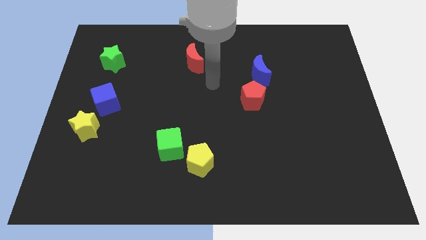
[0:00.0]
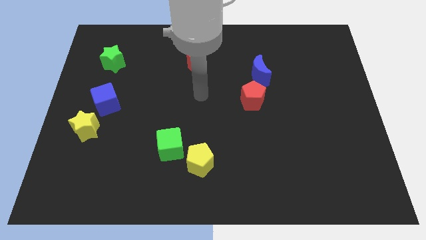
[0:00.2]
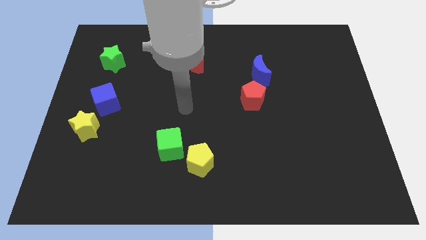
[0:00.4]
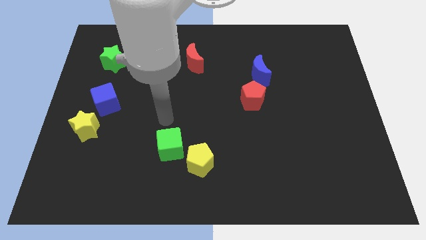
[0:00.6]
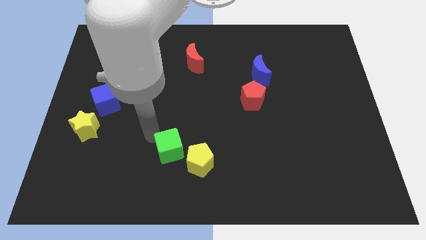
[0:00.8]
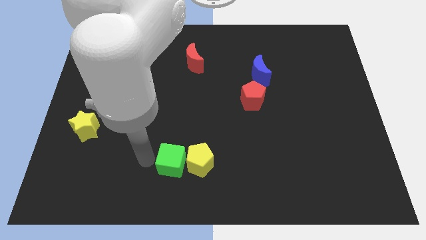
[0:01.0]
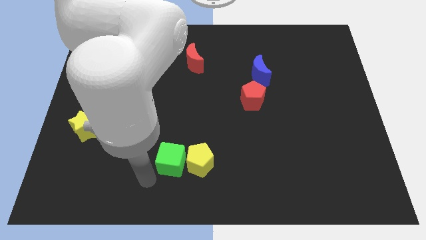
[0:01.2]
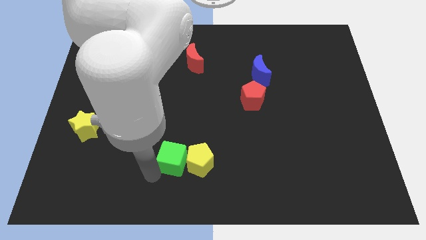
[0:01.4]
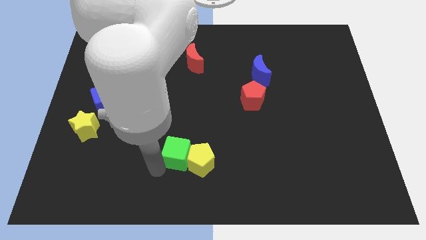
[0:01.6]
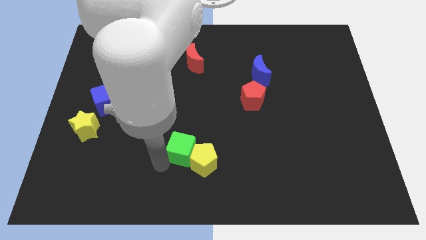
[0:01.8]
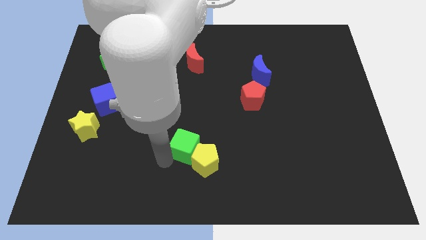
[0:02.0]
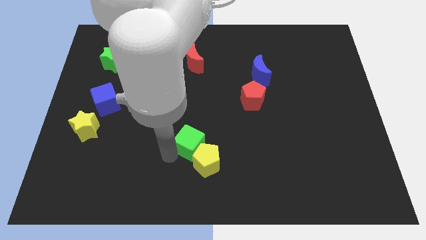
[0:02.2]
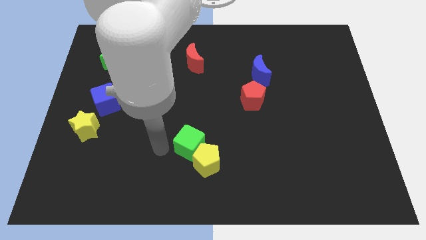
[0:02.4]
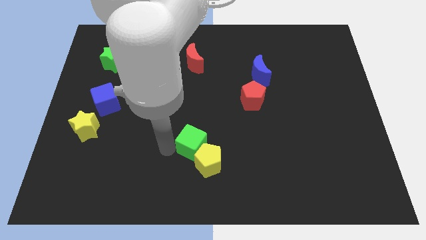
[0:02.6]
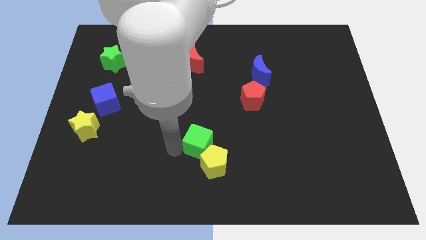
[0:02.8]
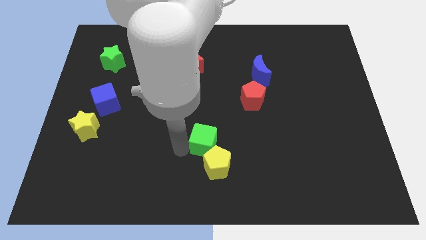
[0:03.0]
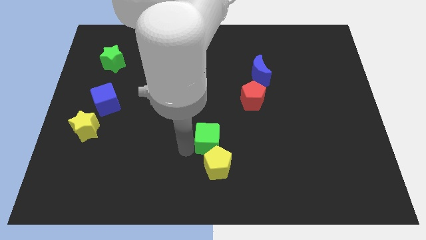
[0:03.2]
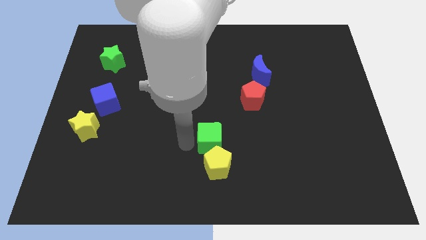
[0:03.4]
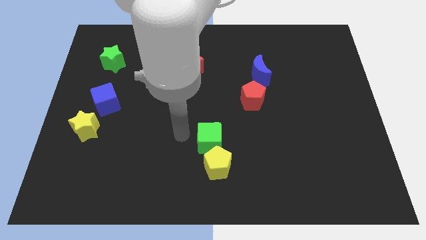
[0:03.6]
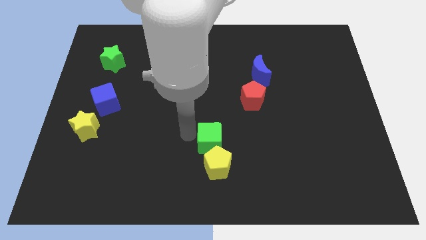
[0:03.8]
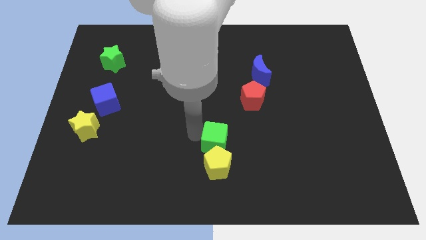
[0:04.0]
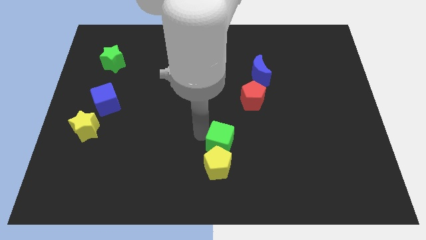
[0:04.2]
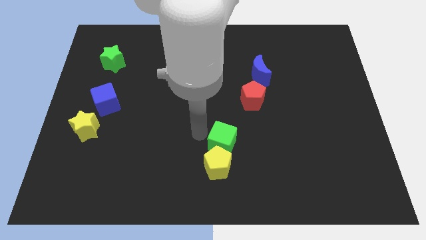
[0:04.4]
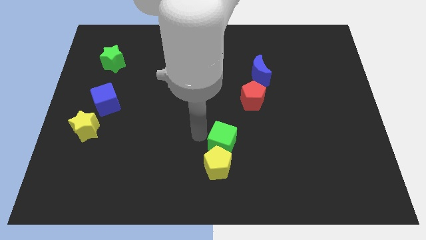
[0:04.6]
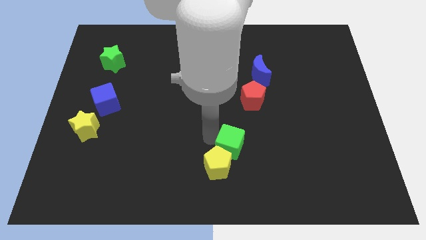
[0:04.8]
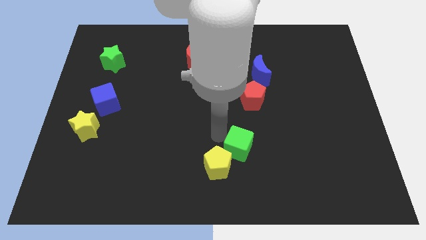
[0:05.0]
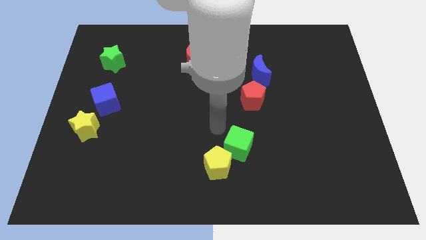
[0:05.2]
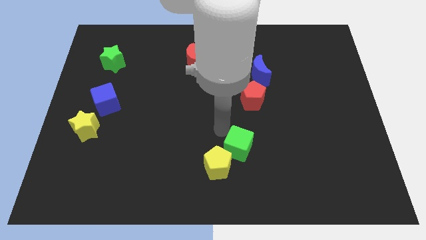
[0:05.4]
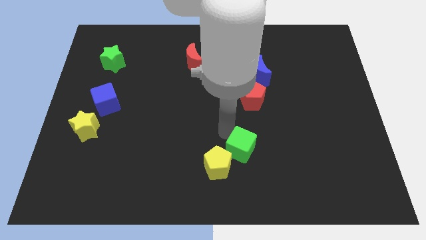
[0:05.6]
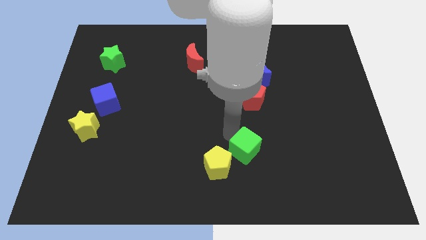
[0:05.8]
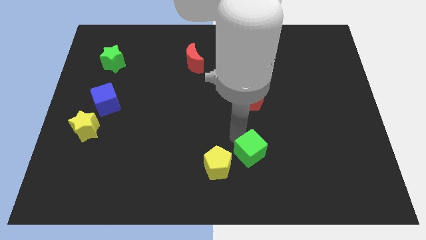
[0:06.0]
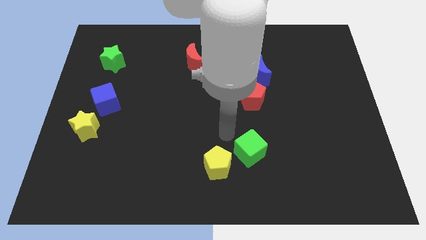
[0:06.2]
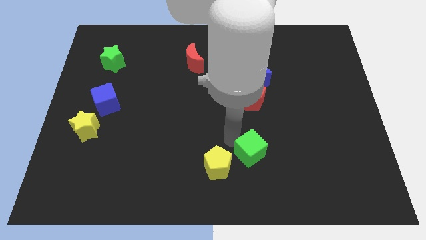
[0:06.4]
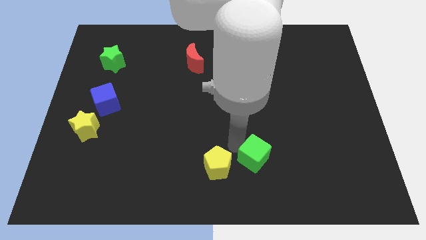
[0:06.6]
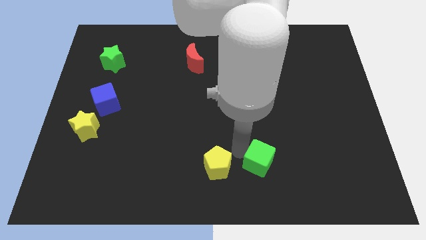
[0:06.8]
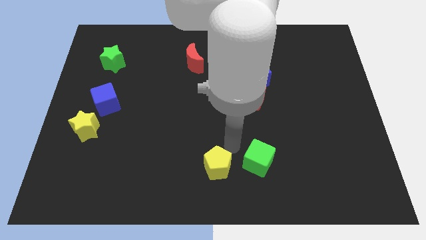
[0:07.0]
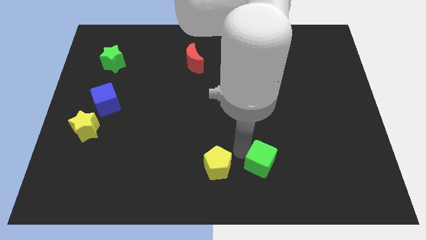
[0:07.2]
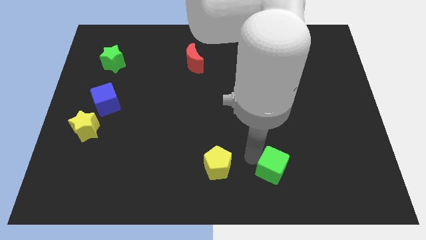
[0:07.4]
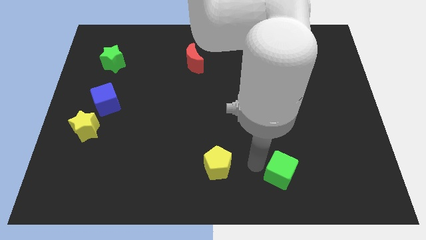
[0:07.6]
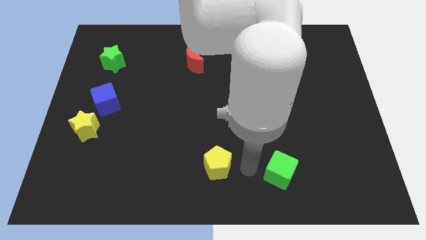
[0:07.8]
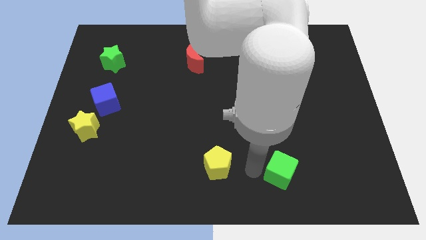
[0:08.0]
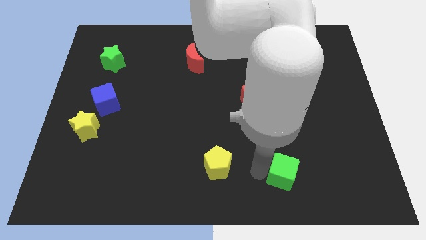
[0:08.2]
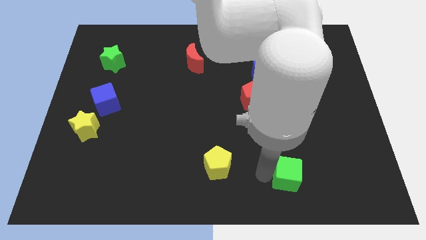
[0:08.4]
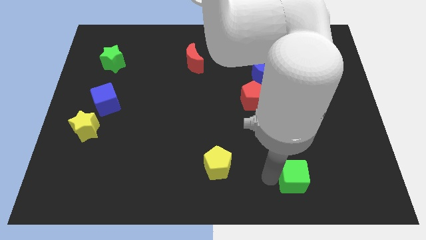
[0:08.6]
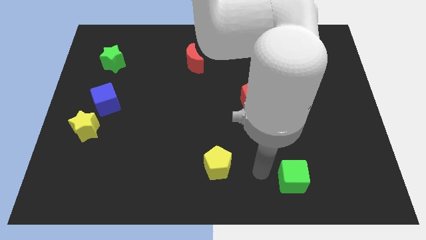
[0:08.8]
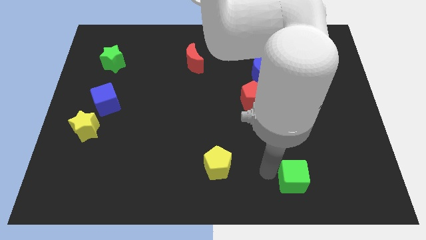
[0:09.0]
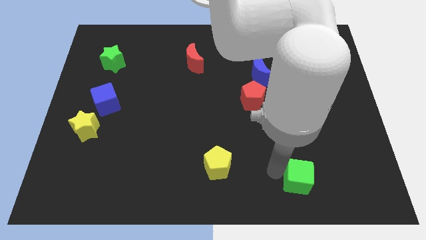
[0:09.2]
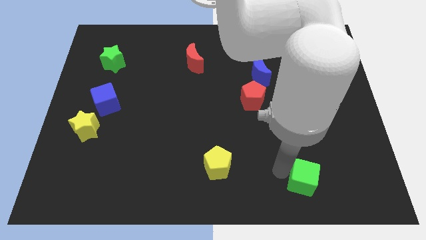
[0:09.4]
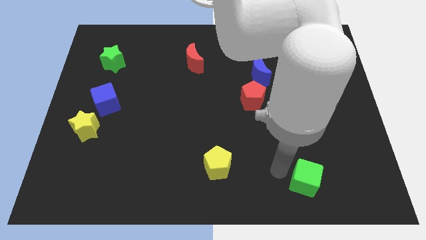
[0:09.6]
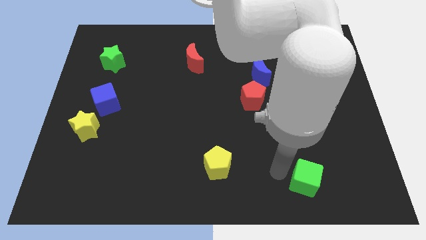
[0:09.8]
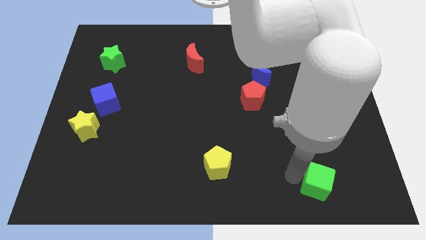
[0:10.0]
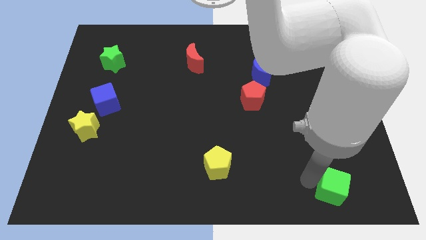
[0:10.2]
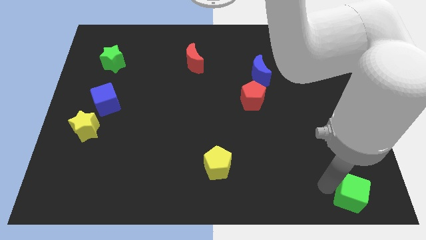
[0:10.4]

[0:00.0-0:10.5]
push the green cube to the lower right corner

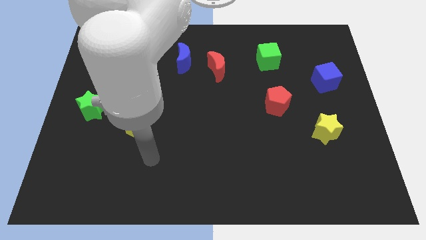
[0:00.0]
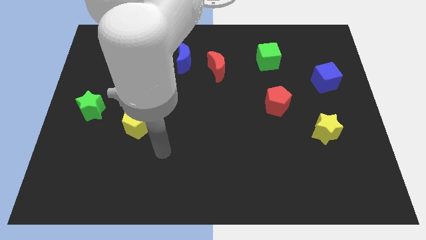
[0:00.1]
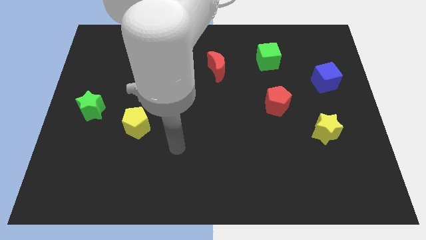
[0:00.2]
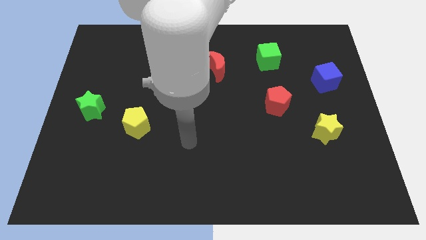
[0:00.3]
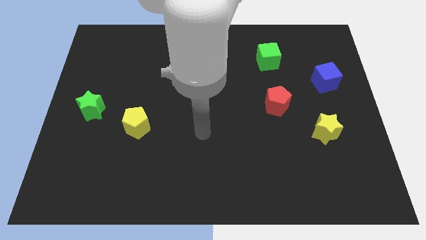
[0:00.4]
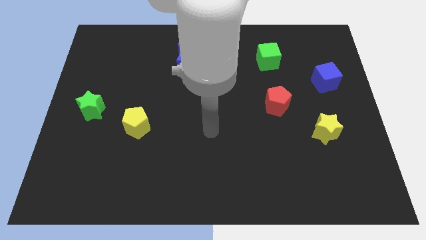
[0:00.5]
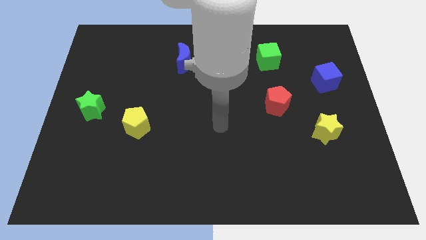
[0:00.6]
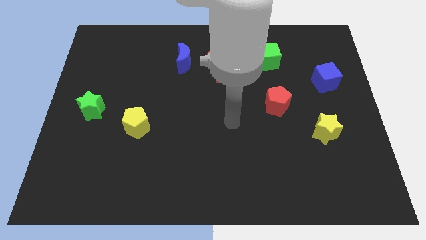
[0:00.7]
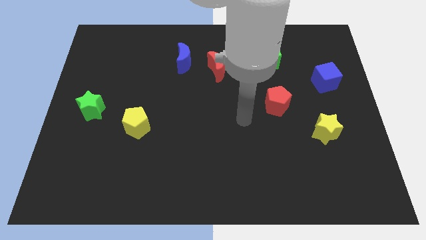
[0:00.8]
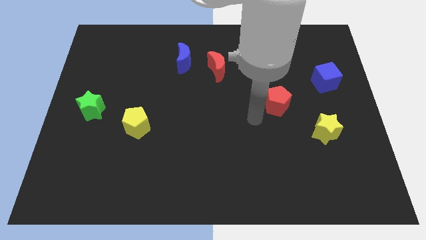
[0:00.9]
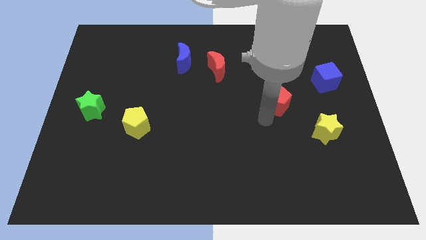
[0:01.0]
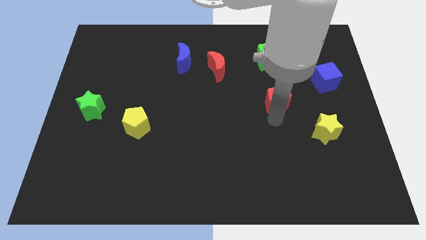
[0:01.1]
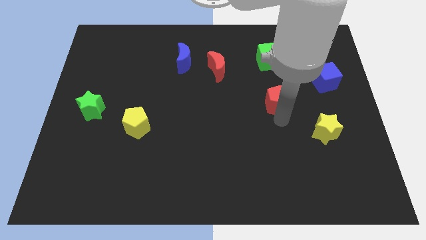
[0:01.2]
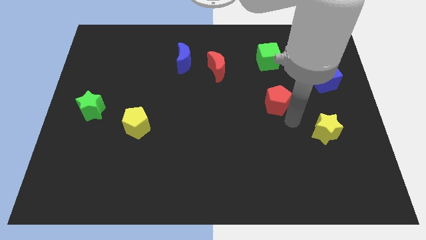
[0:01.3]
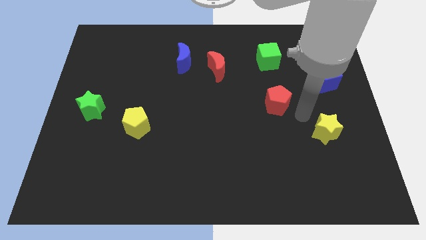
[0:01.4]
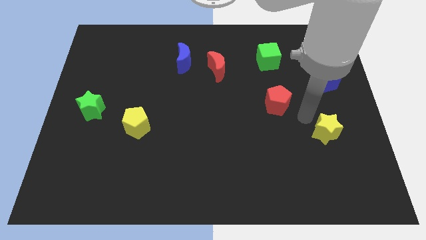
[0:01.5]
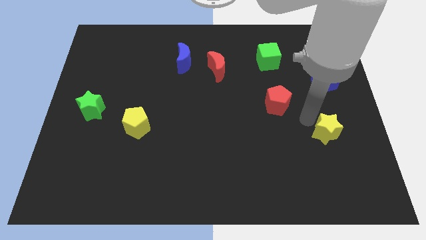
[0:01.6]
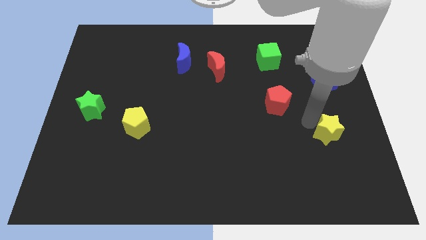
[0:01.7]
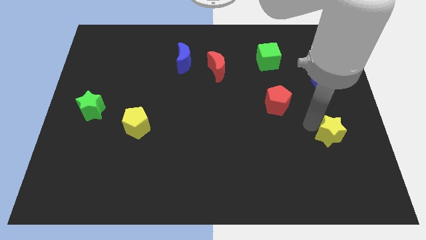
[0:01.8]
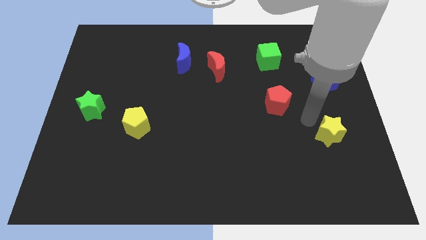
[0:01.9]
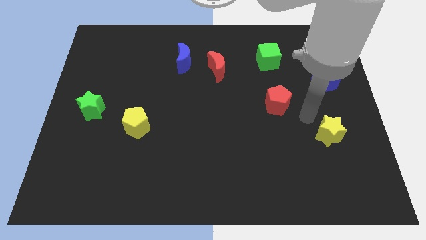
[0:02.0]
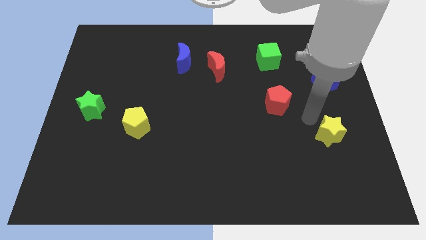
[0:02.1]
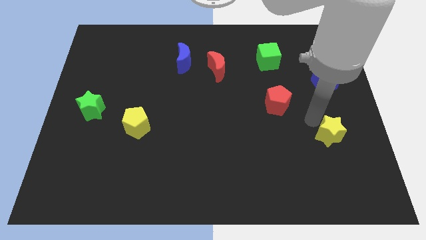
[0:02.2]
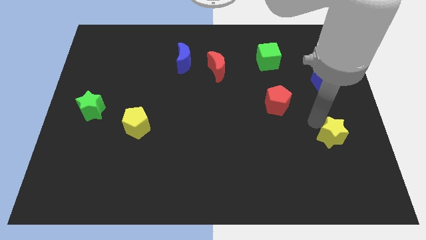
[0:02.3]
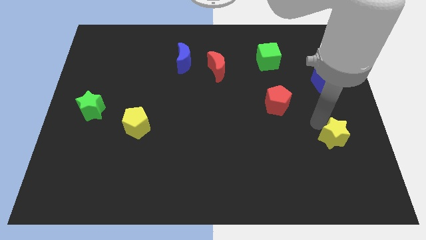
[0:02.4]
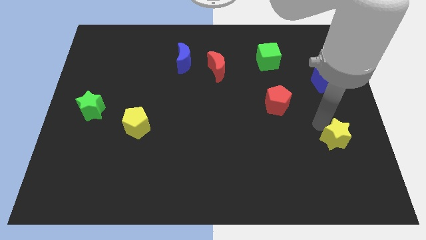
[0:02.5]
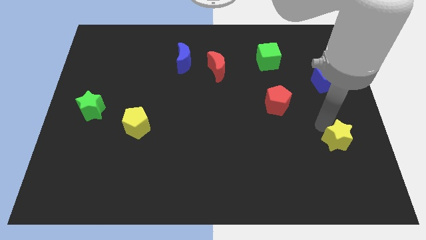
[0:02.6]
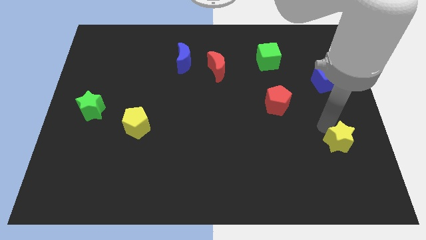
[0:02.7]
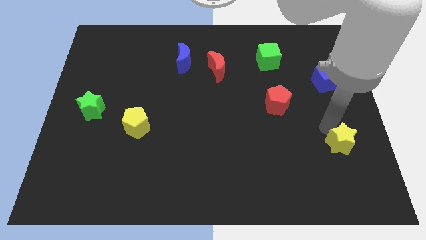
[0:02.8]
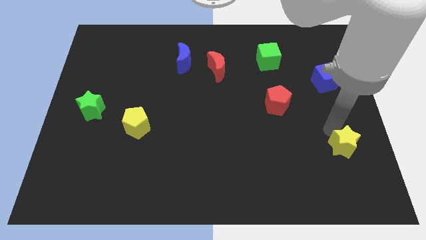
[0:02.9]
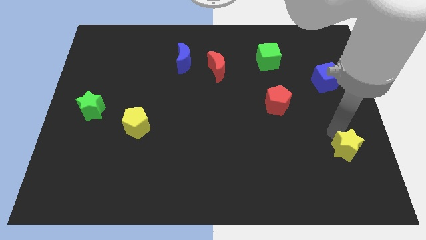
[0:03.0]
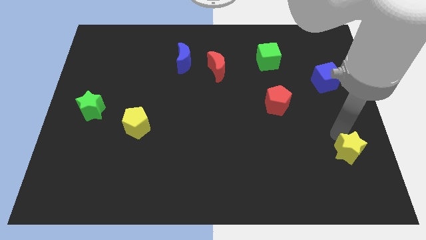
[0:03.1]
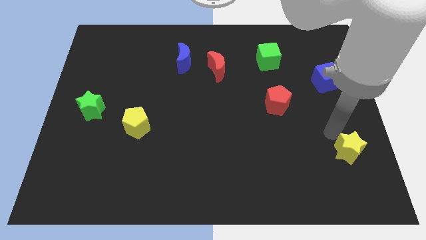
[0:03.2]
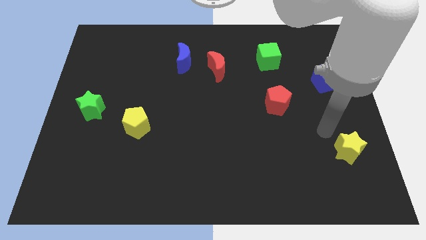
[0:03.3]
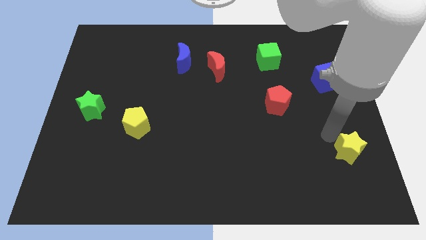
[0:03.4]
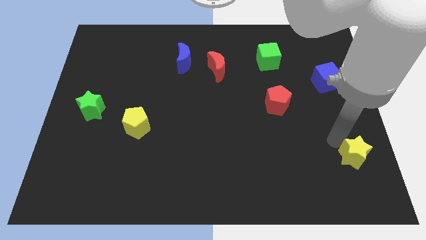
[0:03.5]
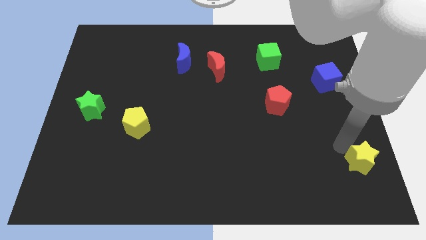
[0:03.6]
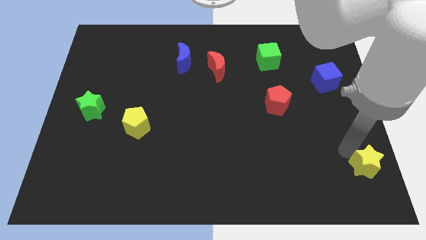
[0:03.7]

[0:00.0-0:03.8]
slide the yellow star to the bottom right of the board
